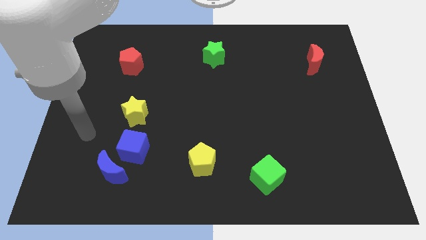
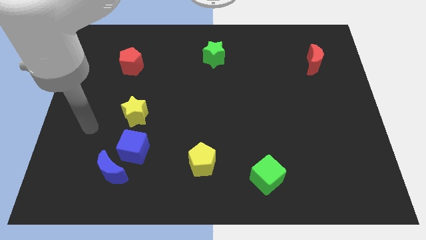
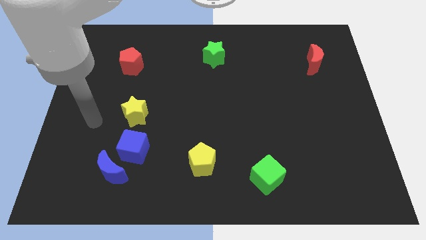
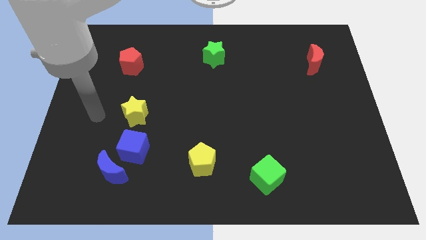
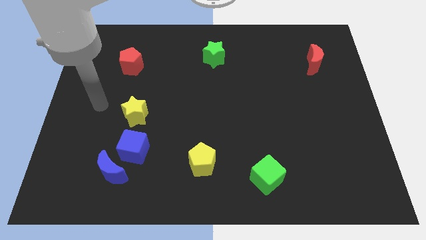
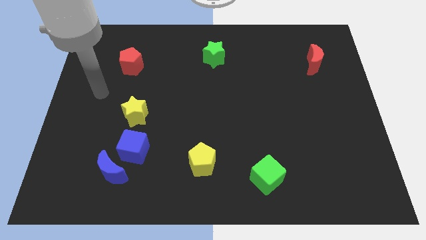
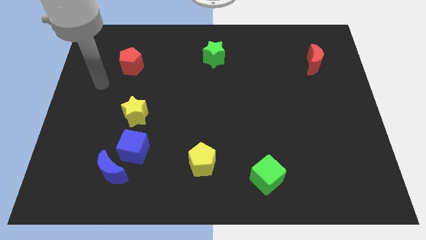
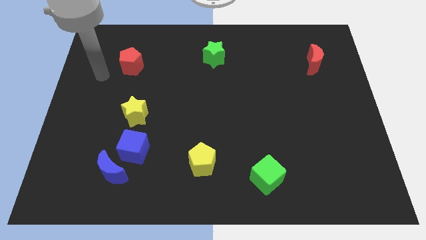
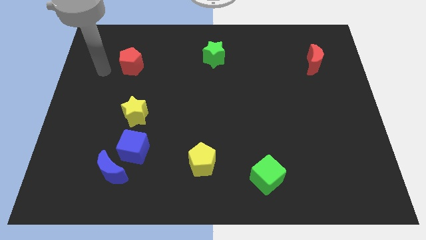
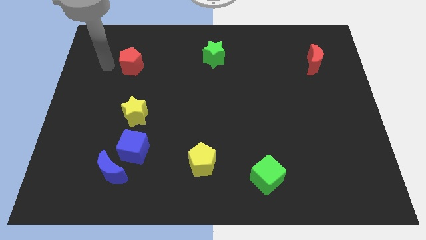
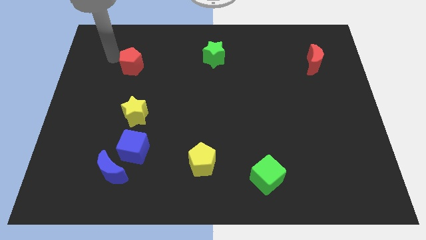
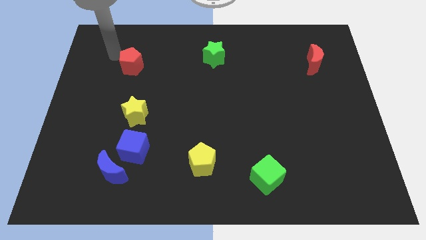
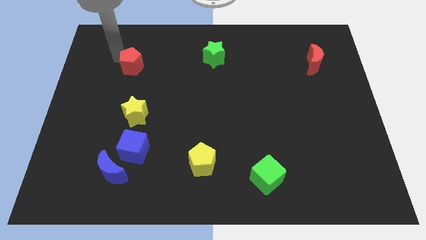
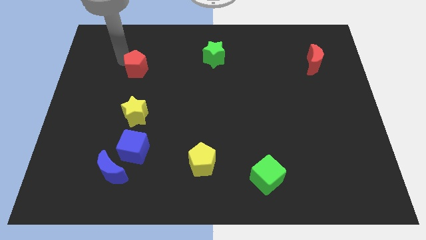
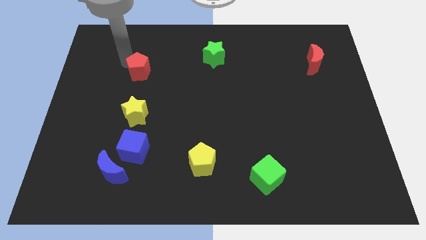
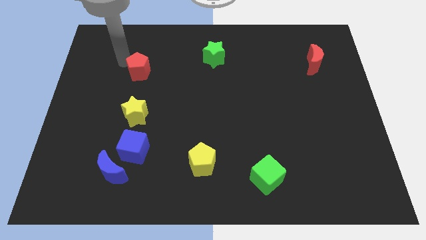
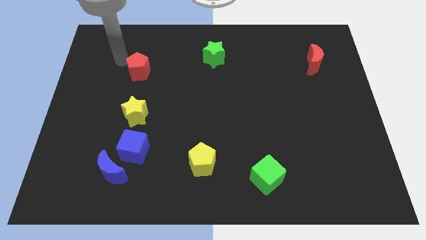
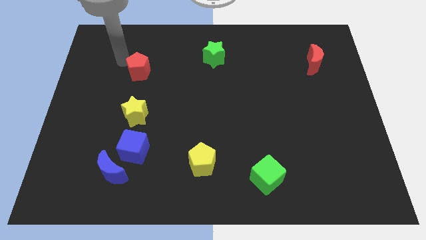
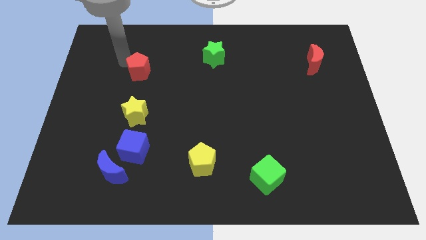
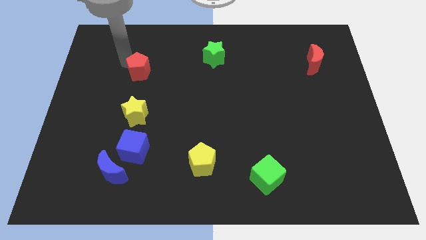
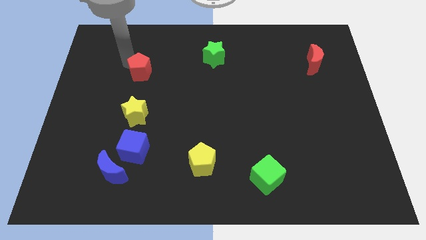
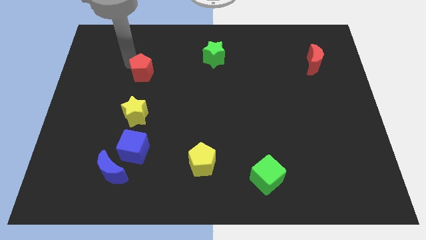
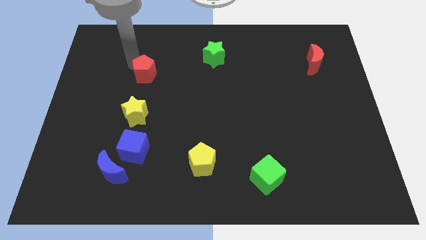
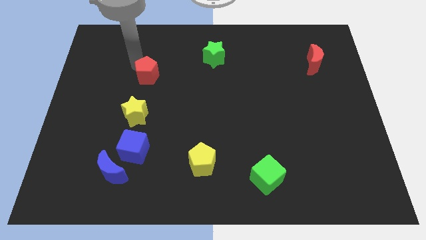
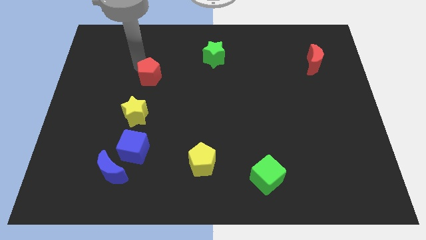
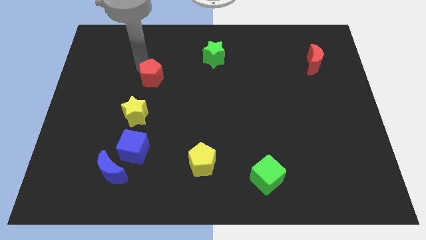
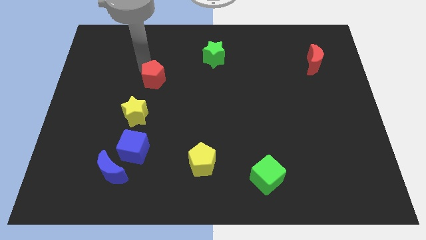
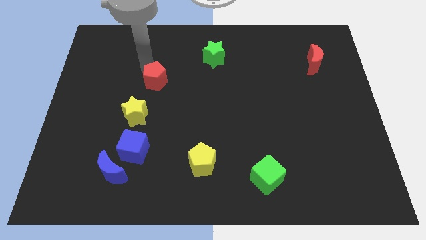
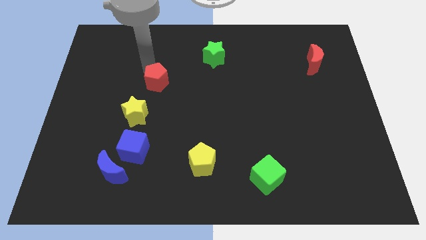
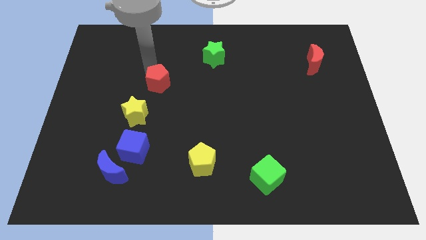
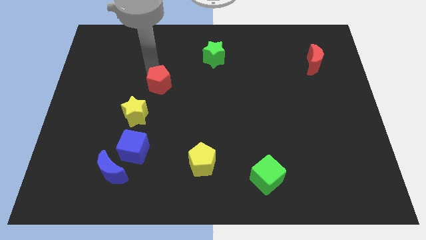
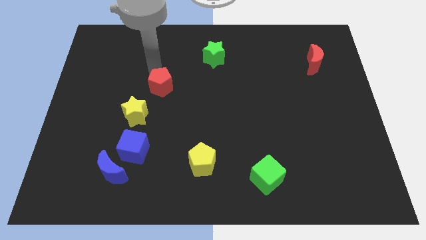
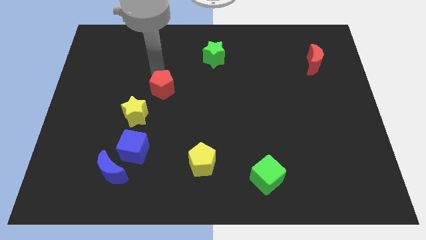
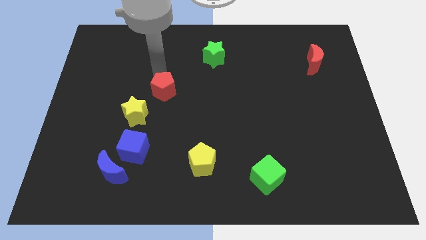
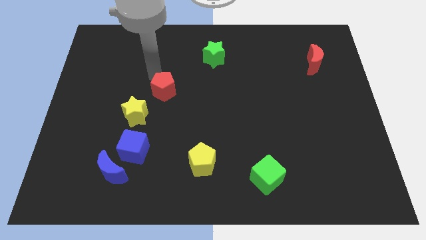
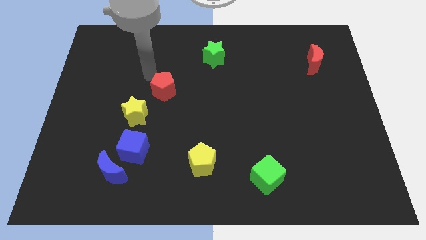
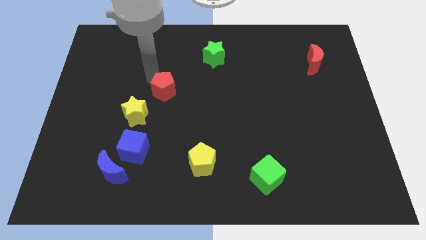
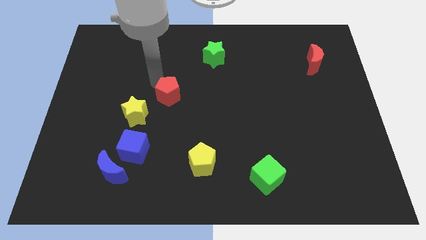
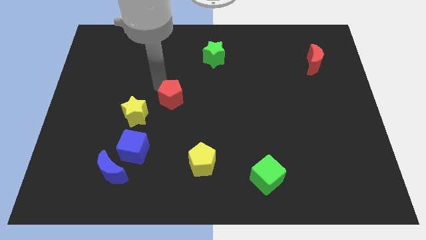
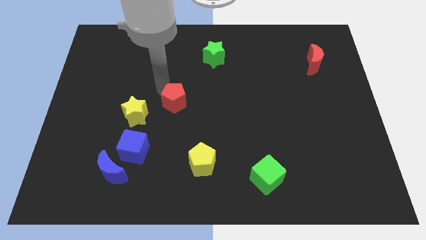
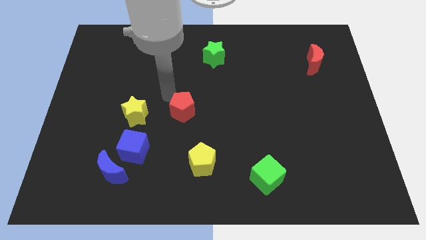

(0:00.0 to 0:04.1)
slide the red pentagon down and to the right diagonally

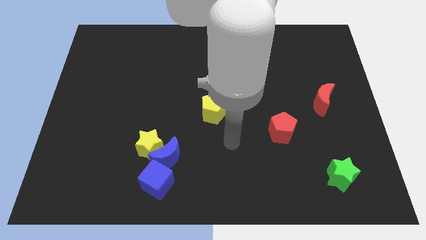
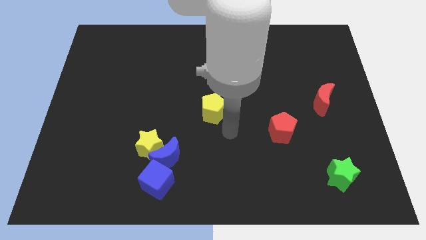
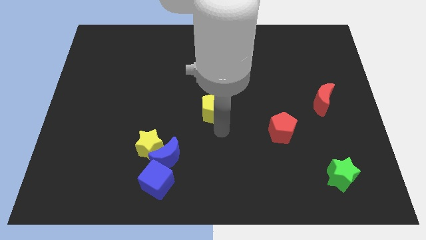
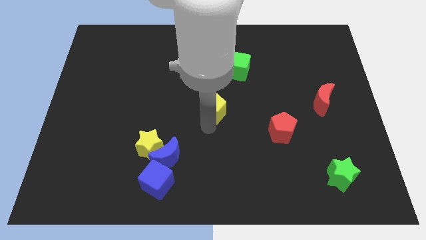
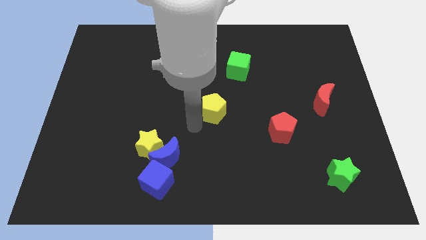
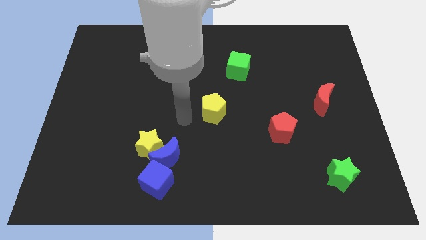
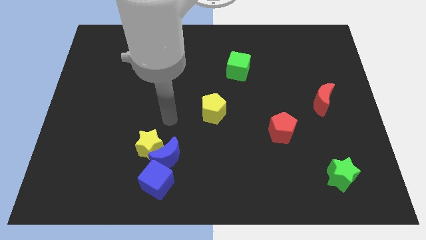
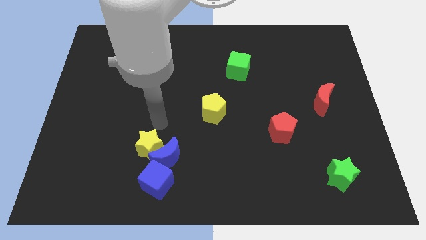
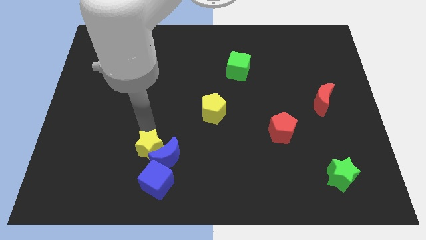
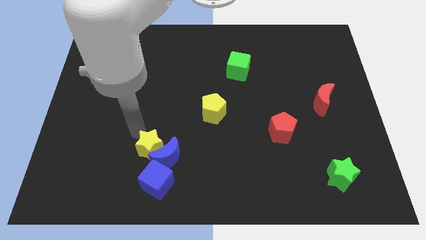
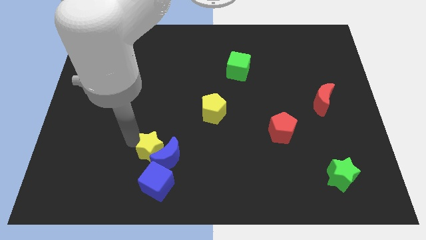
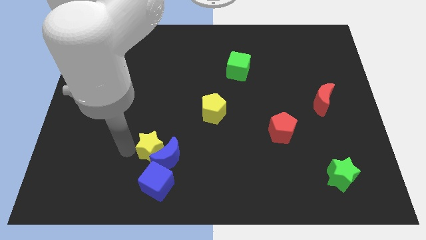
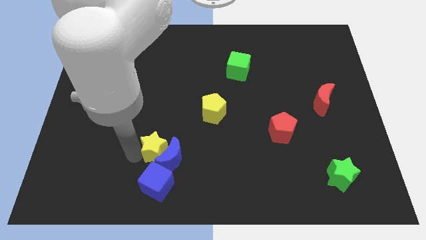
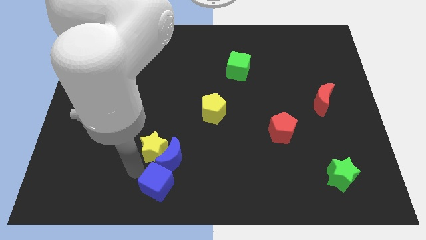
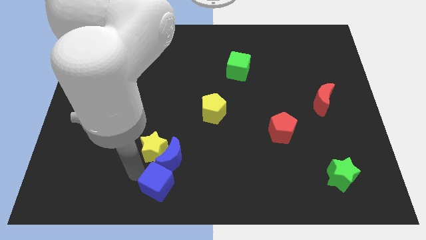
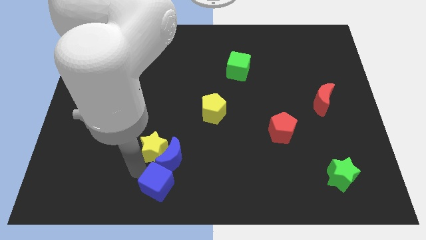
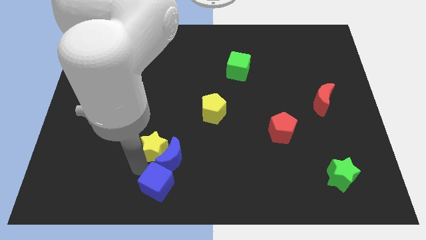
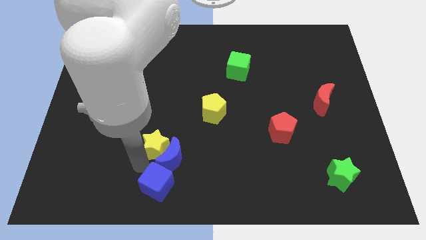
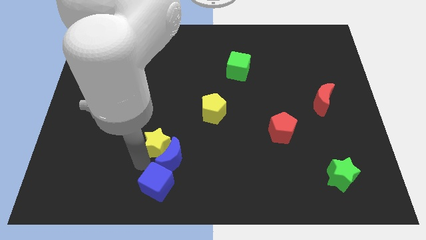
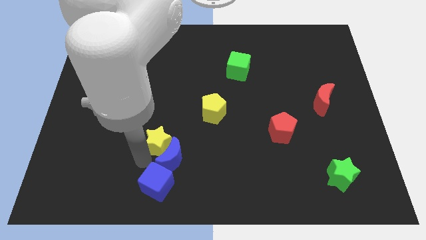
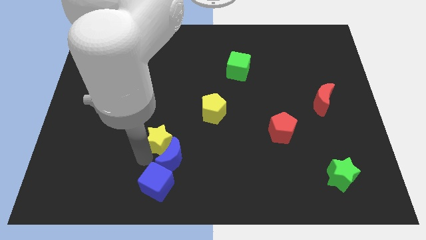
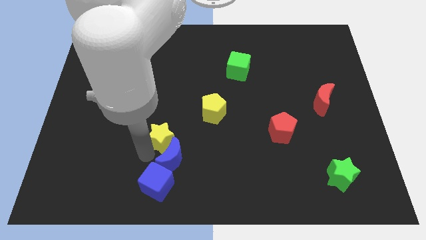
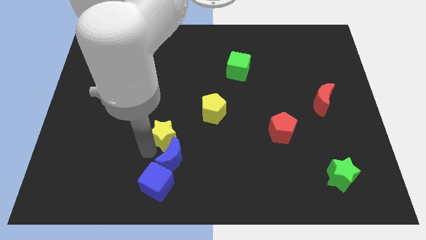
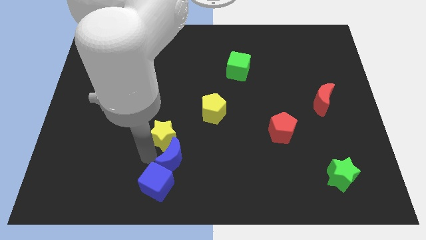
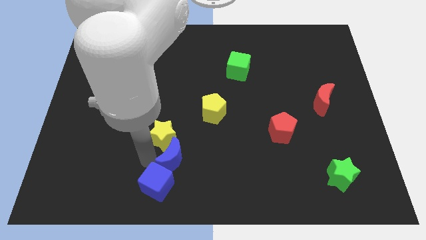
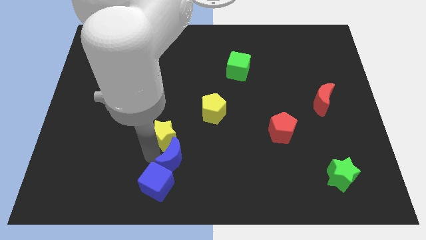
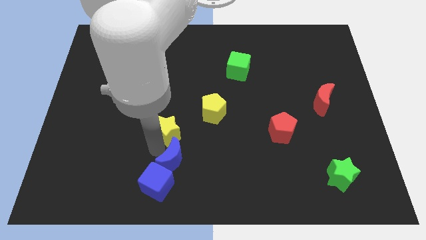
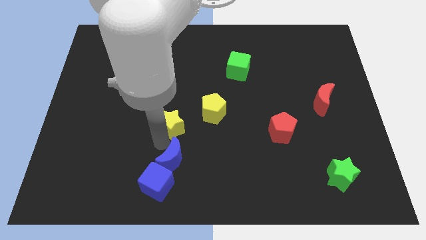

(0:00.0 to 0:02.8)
push the yellow star a bit upwards and then to the right

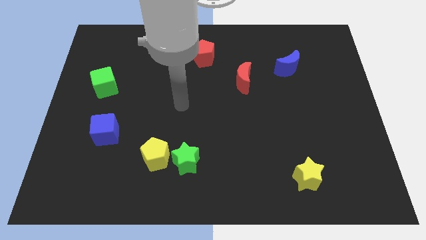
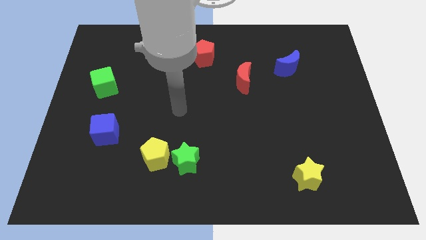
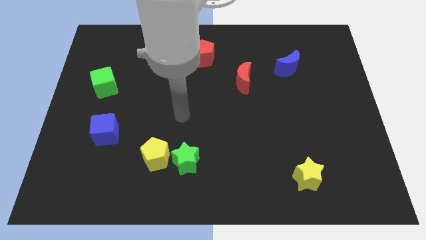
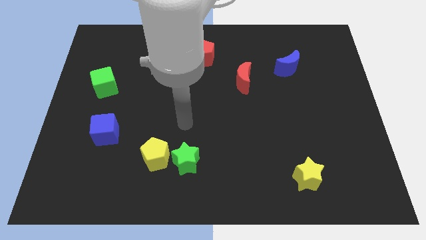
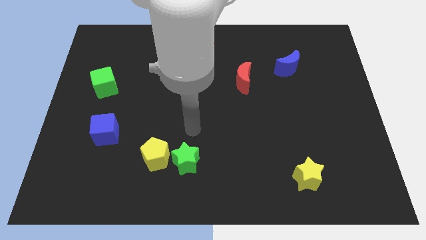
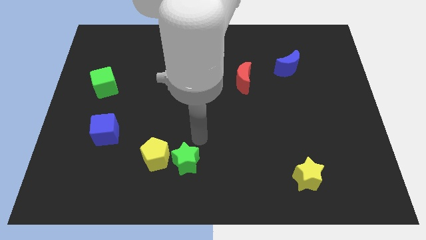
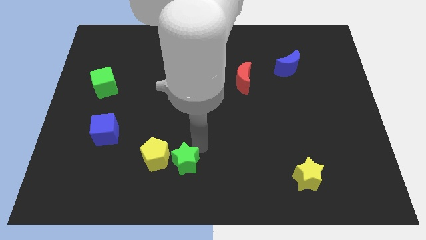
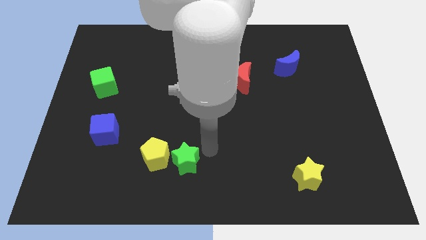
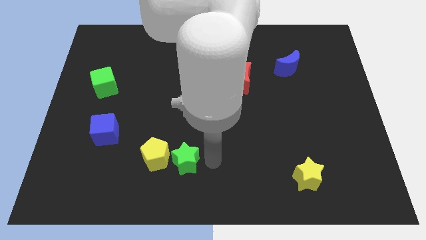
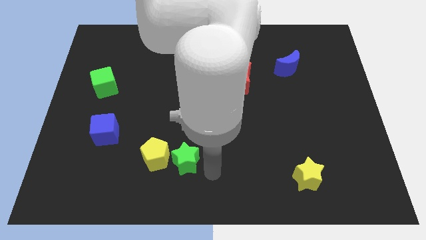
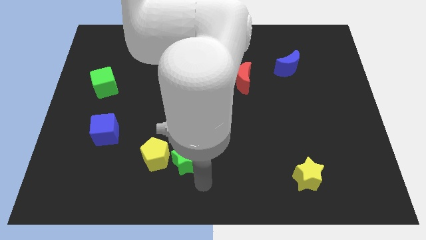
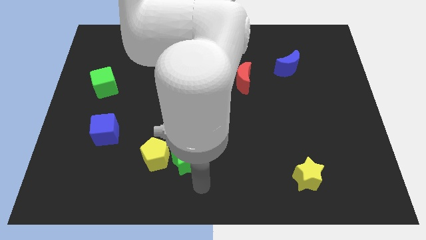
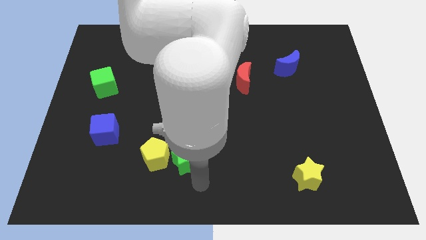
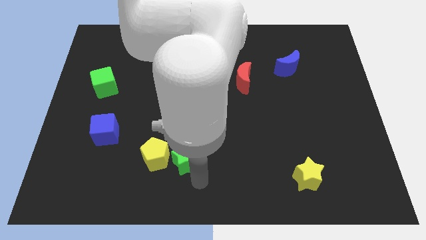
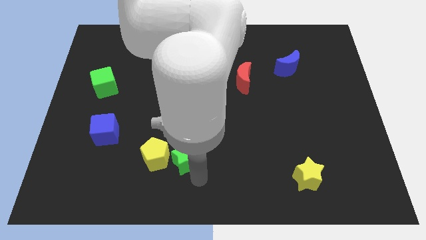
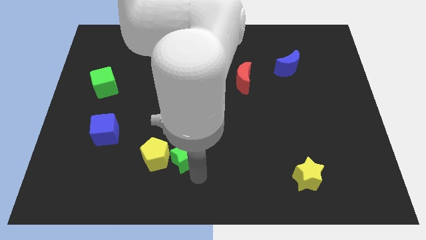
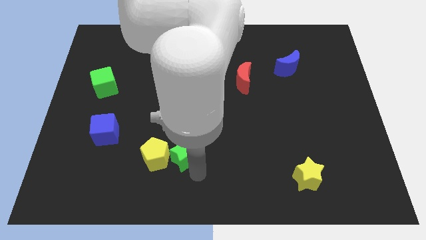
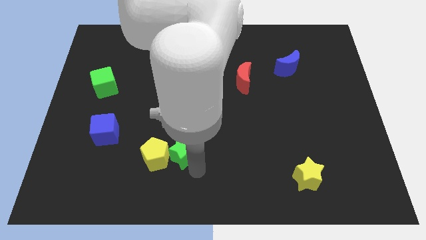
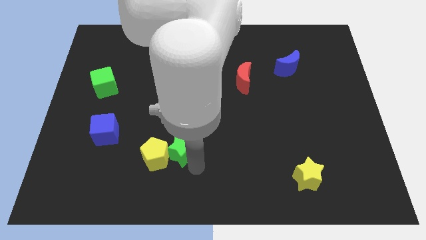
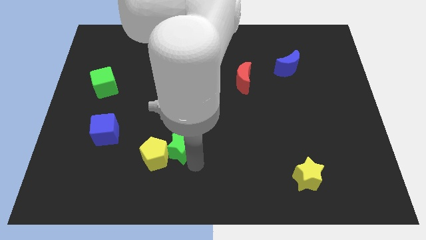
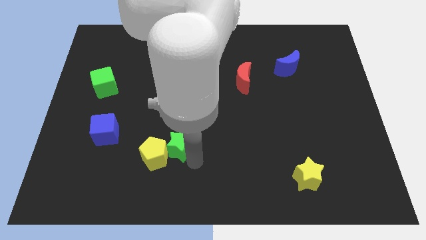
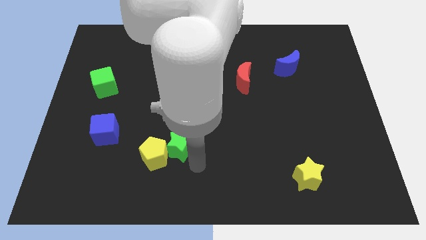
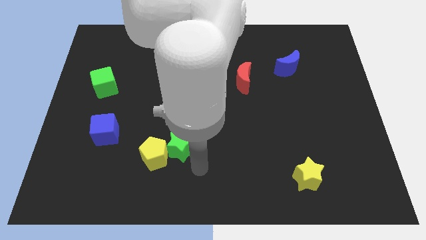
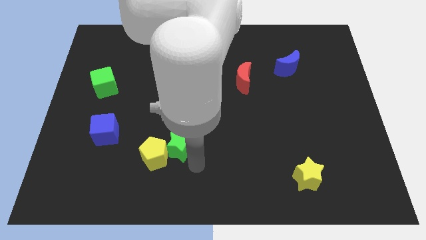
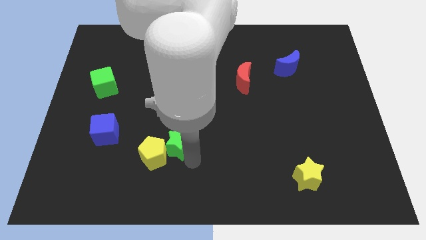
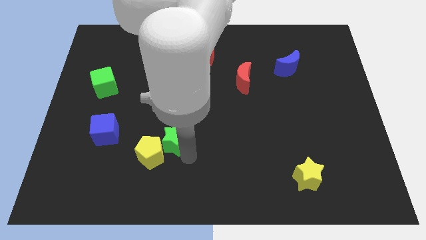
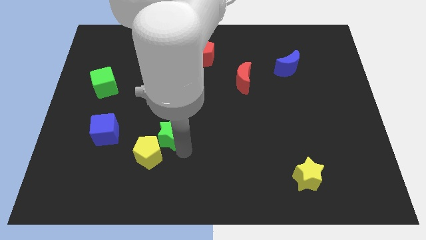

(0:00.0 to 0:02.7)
slightly slide the green star upwards and then to the left
